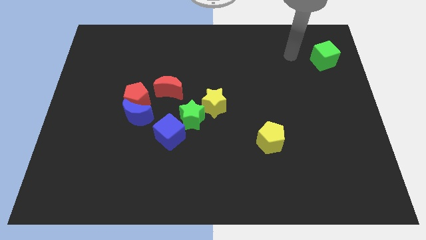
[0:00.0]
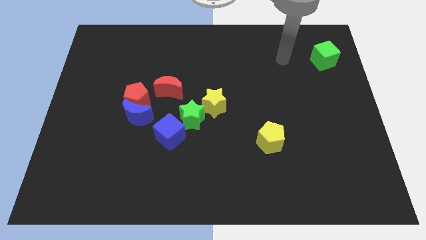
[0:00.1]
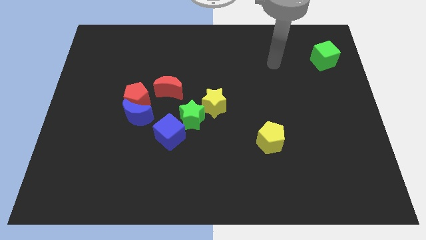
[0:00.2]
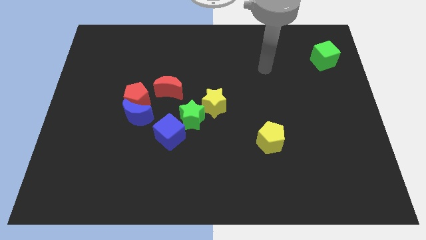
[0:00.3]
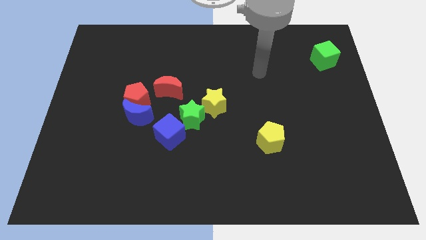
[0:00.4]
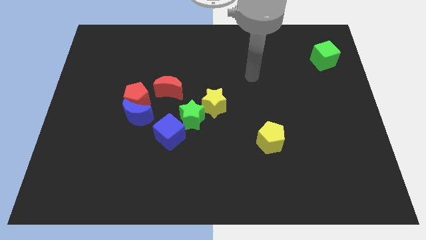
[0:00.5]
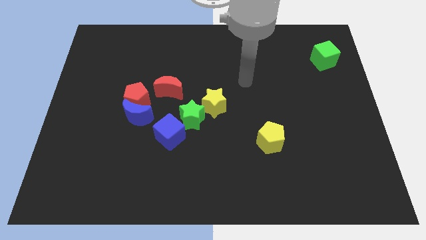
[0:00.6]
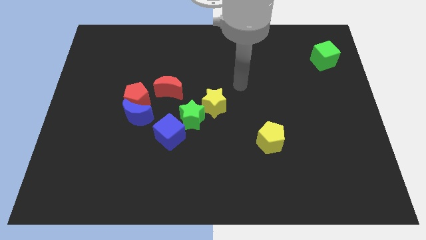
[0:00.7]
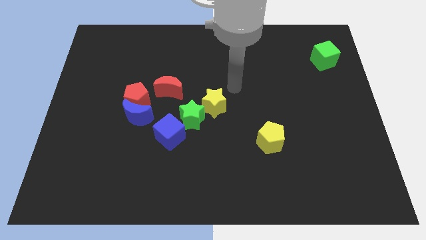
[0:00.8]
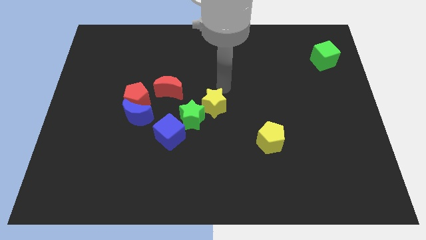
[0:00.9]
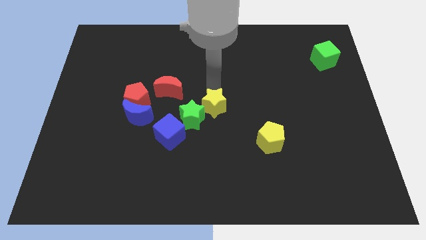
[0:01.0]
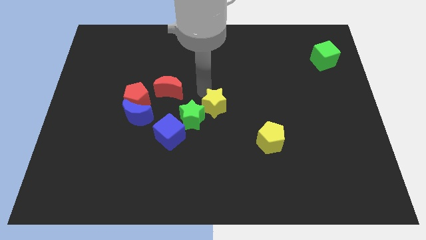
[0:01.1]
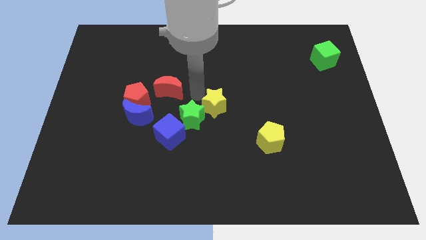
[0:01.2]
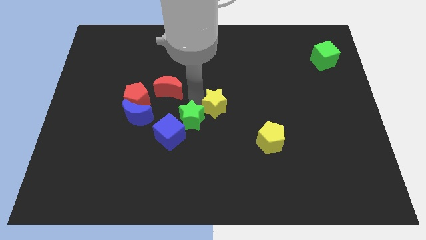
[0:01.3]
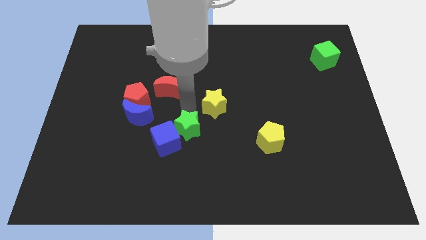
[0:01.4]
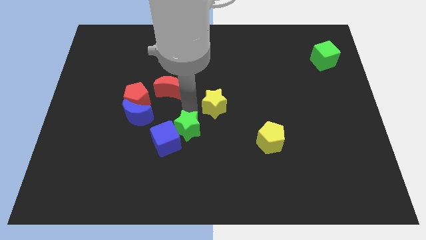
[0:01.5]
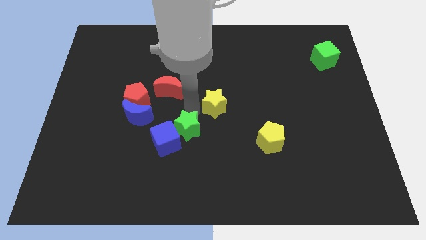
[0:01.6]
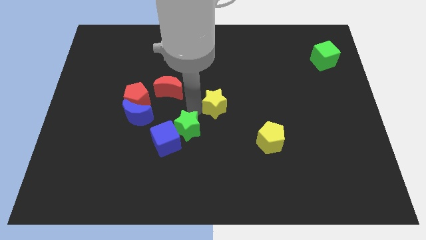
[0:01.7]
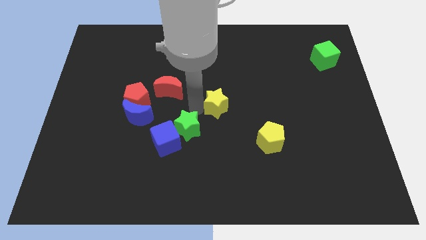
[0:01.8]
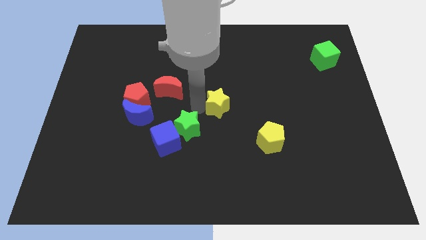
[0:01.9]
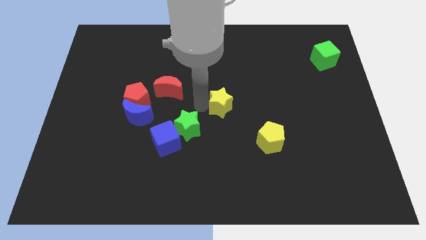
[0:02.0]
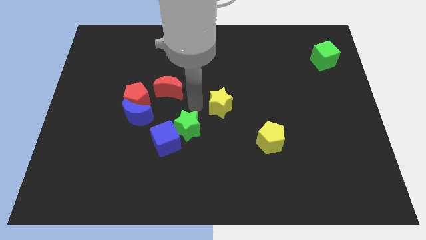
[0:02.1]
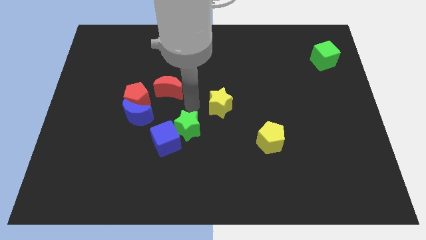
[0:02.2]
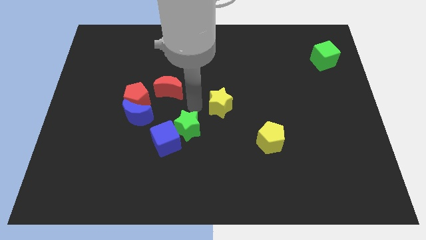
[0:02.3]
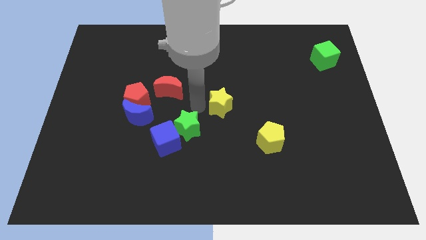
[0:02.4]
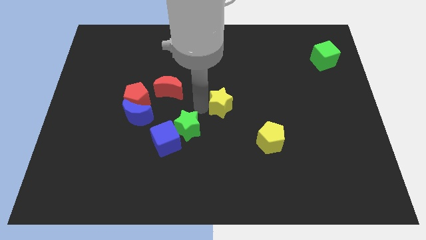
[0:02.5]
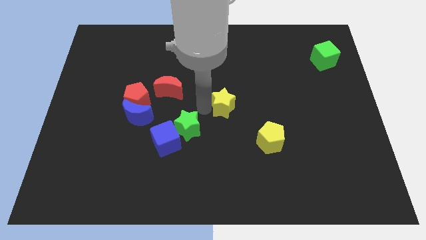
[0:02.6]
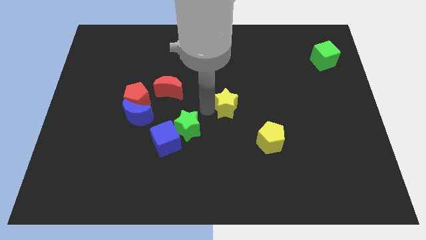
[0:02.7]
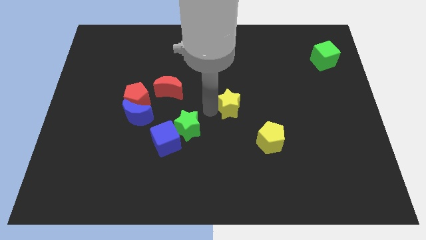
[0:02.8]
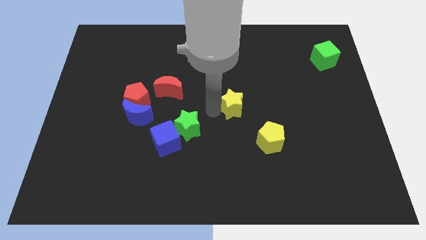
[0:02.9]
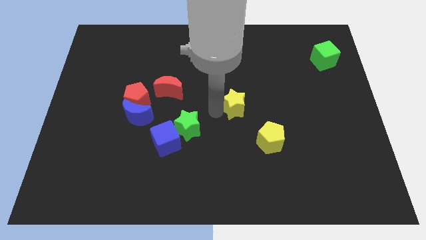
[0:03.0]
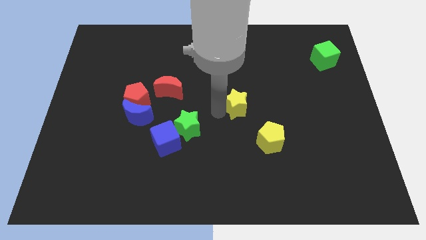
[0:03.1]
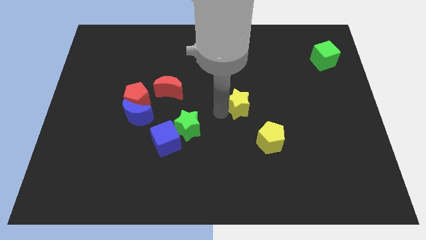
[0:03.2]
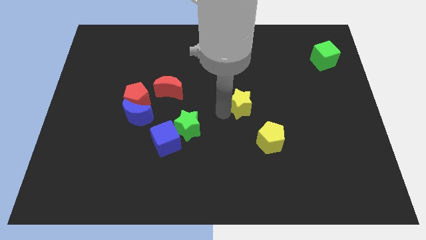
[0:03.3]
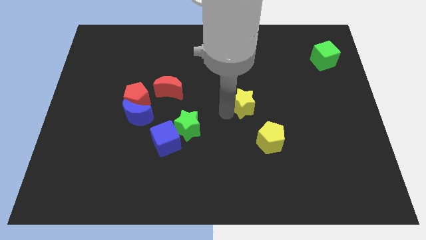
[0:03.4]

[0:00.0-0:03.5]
slightly push the yellow star to the right

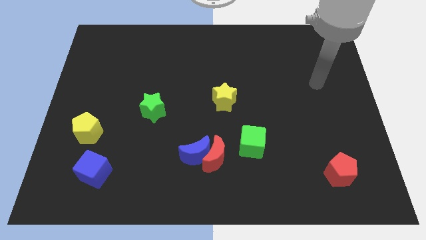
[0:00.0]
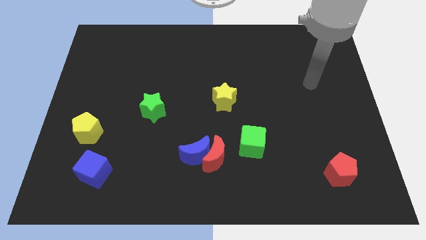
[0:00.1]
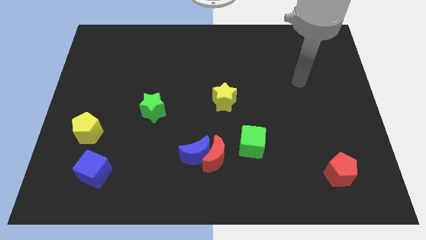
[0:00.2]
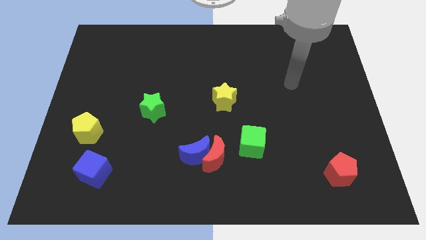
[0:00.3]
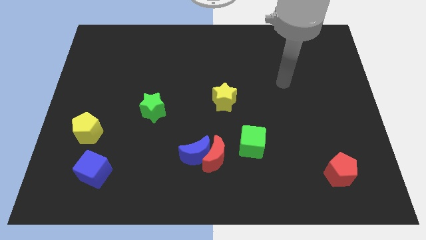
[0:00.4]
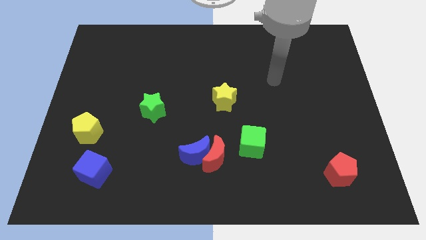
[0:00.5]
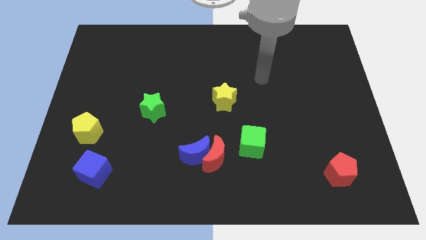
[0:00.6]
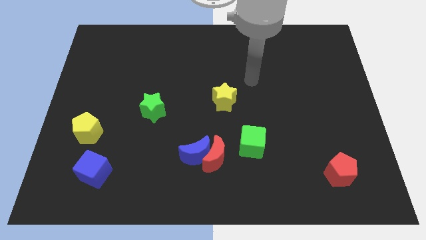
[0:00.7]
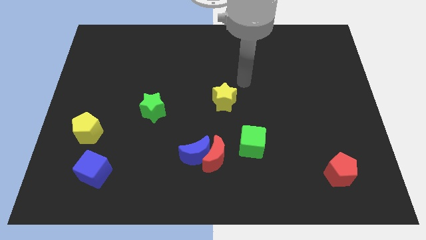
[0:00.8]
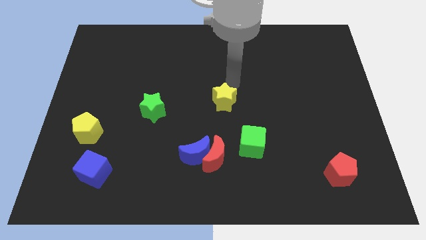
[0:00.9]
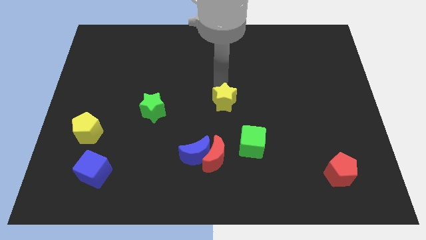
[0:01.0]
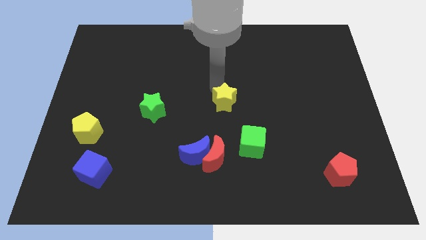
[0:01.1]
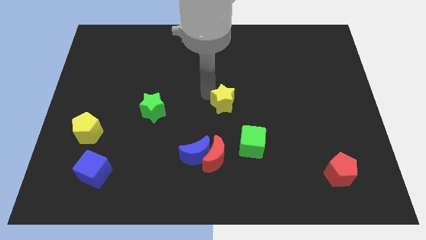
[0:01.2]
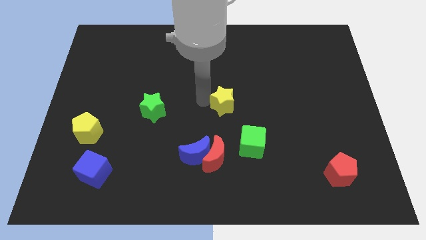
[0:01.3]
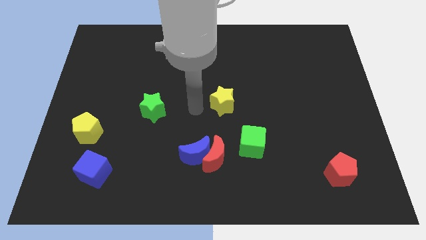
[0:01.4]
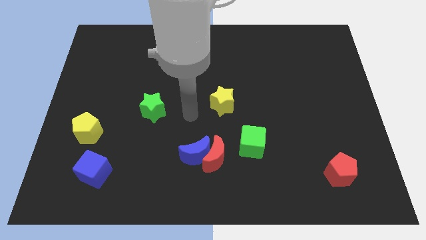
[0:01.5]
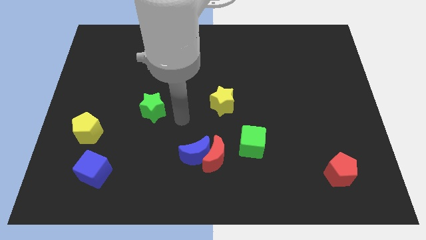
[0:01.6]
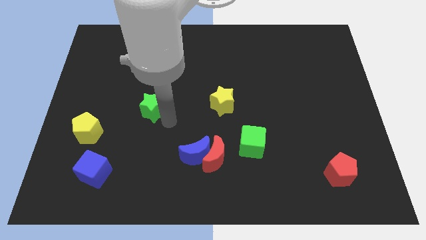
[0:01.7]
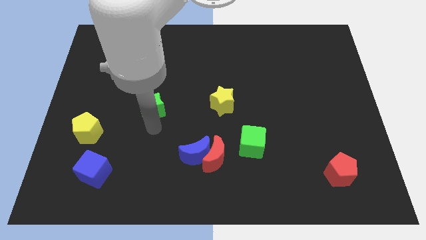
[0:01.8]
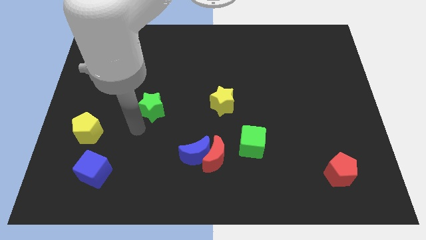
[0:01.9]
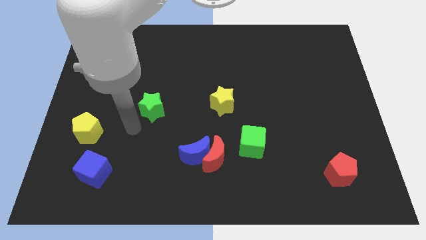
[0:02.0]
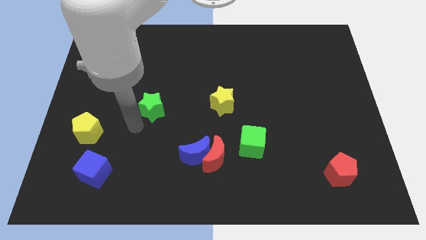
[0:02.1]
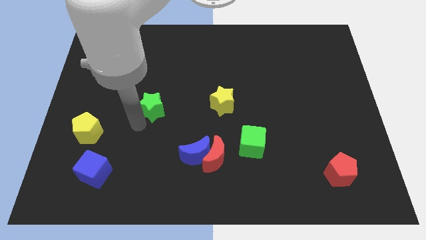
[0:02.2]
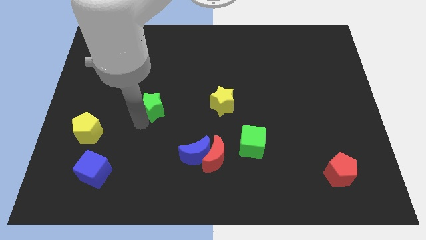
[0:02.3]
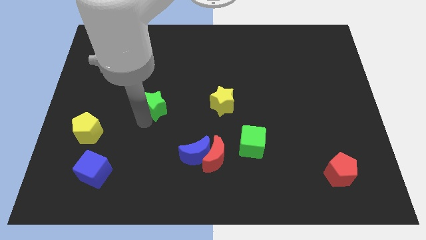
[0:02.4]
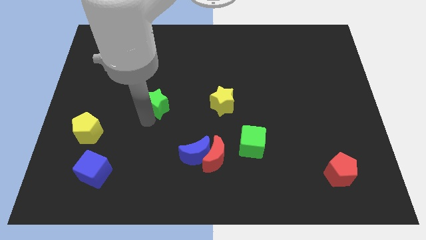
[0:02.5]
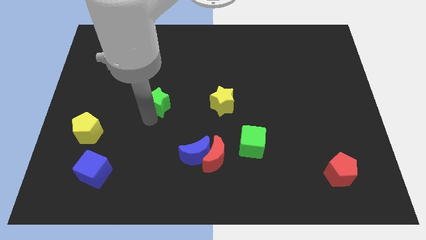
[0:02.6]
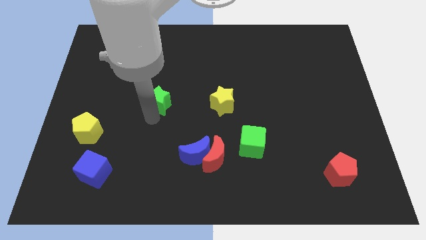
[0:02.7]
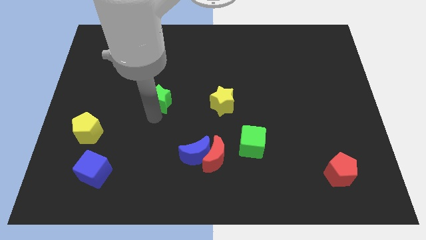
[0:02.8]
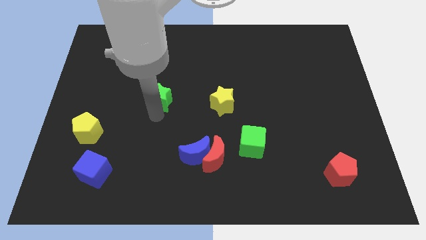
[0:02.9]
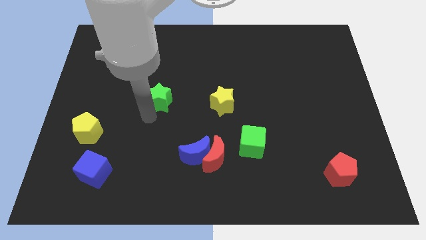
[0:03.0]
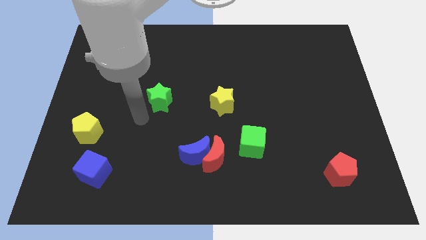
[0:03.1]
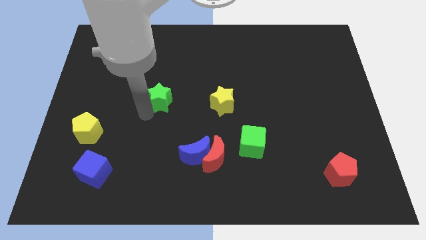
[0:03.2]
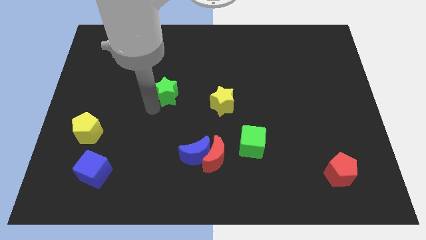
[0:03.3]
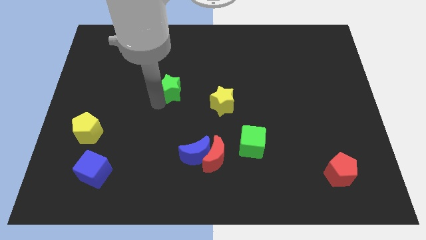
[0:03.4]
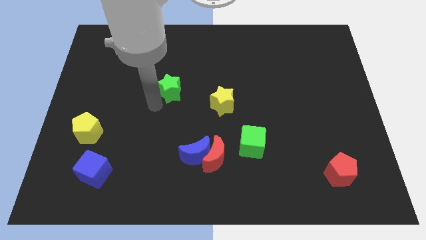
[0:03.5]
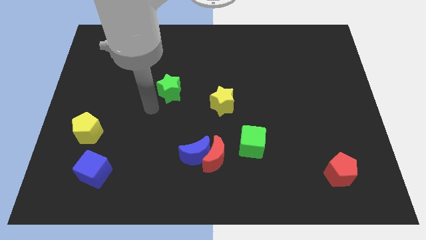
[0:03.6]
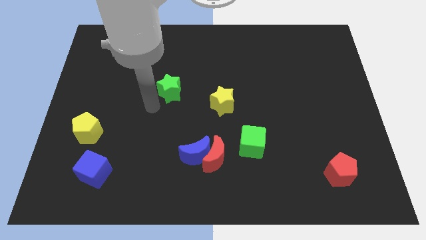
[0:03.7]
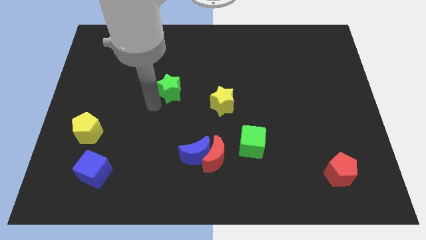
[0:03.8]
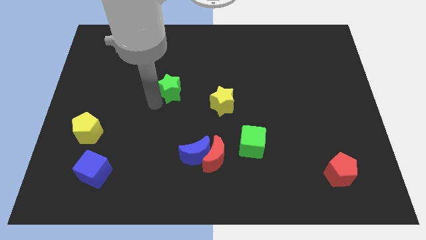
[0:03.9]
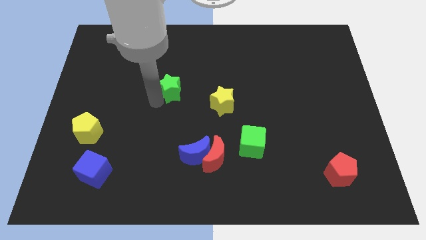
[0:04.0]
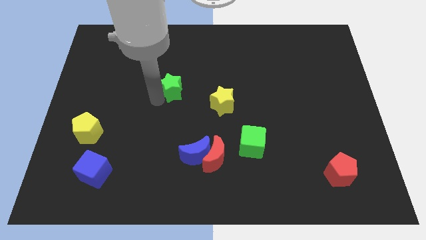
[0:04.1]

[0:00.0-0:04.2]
push the green star a little bit upwards and then right

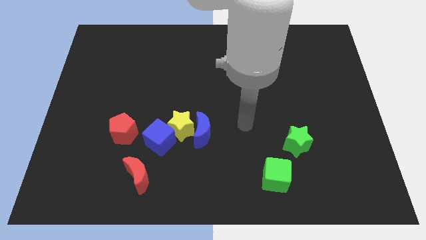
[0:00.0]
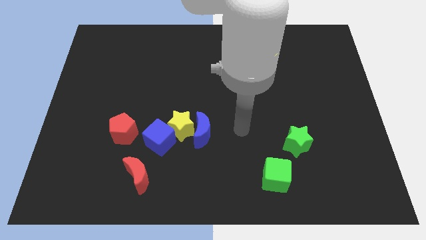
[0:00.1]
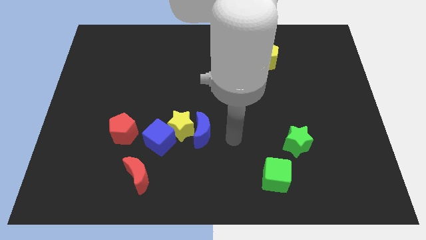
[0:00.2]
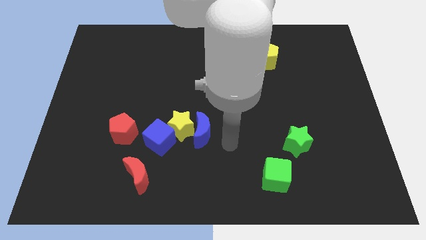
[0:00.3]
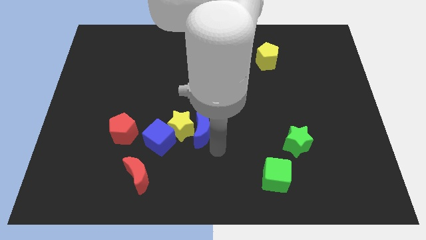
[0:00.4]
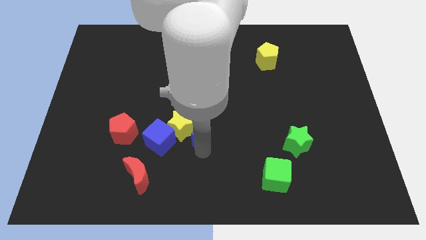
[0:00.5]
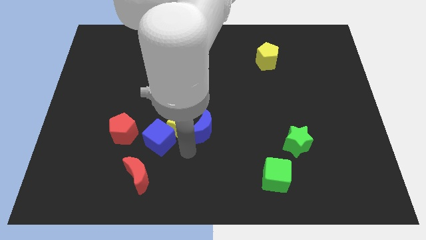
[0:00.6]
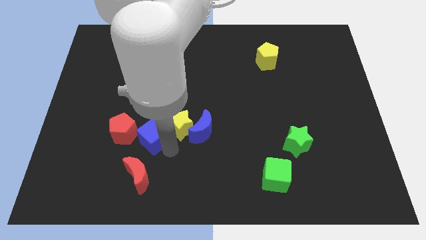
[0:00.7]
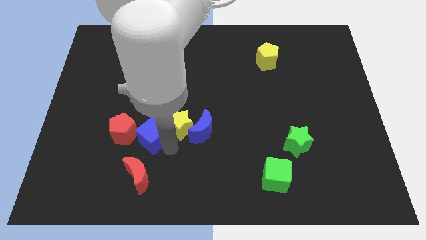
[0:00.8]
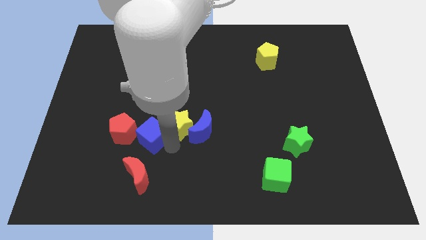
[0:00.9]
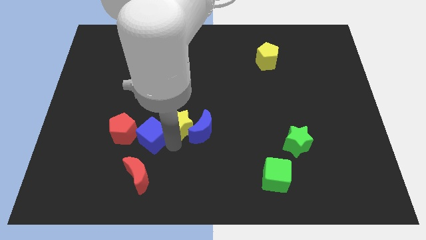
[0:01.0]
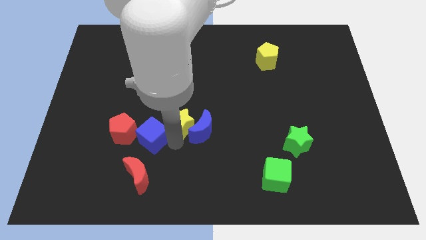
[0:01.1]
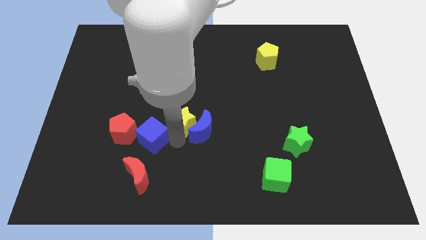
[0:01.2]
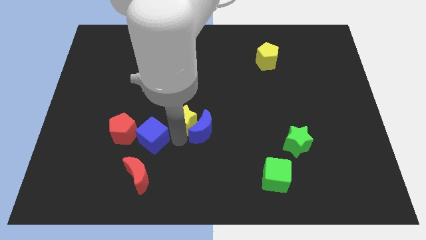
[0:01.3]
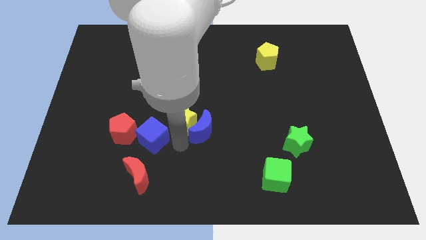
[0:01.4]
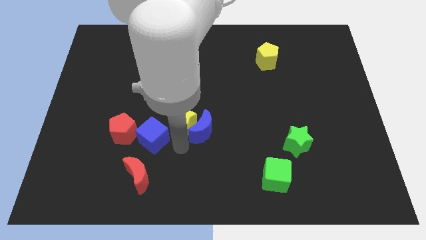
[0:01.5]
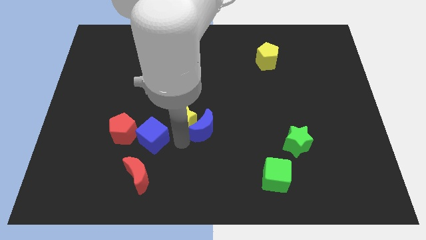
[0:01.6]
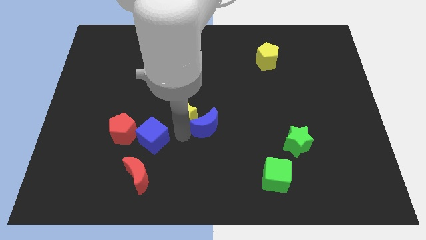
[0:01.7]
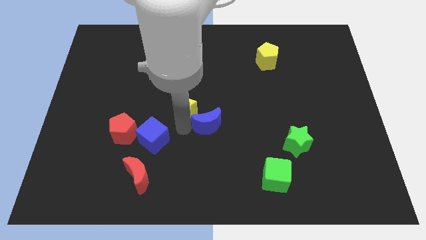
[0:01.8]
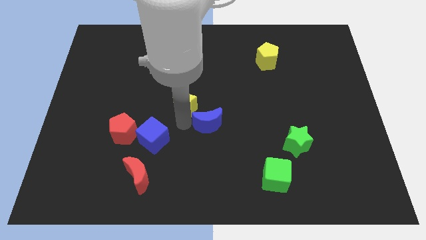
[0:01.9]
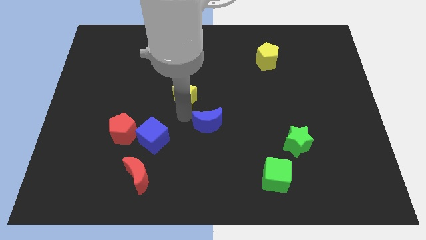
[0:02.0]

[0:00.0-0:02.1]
slightly slide the yellow star upwards
